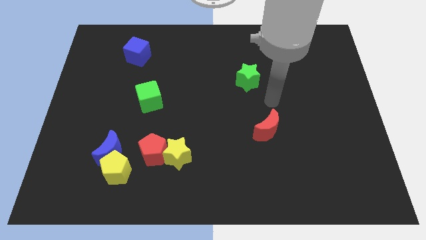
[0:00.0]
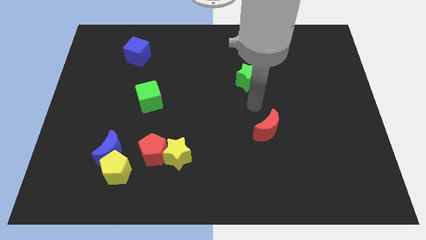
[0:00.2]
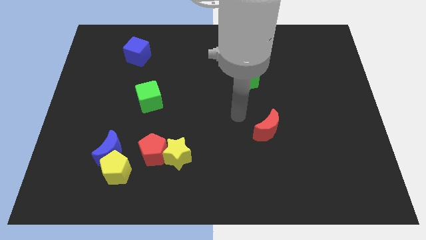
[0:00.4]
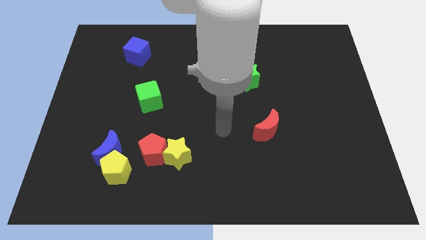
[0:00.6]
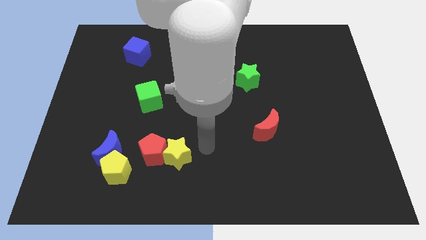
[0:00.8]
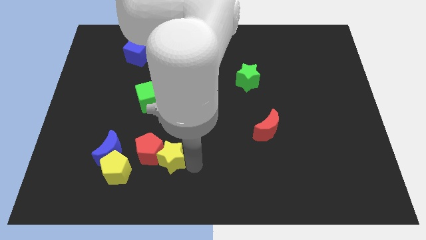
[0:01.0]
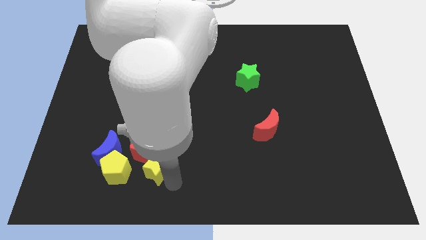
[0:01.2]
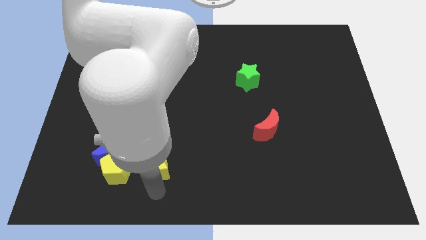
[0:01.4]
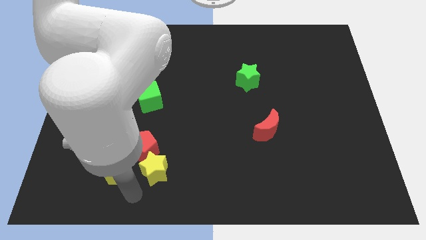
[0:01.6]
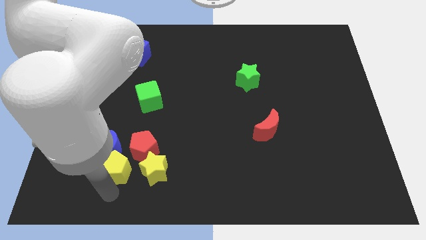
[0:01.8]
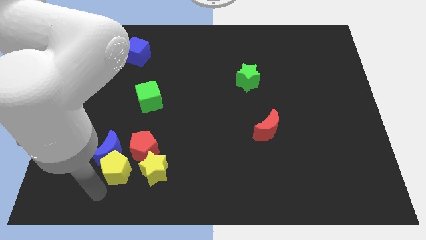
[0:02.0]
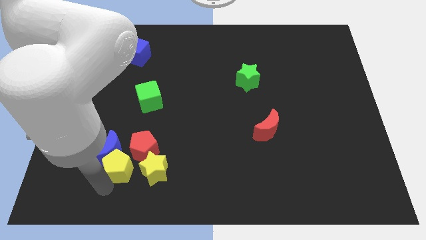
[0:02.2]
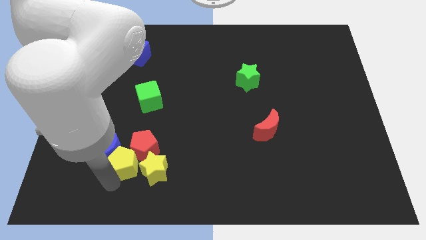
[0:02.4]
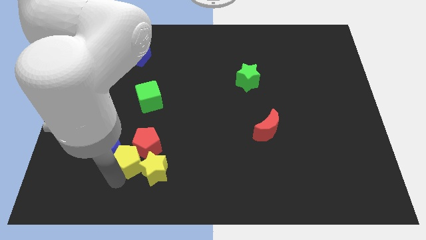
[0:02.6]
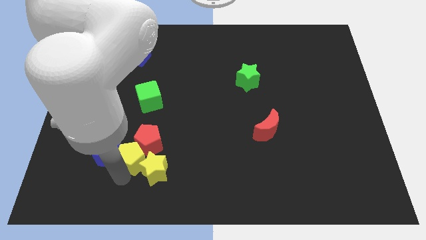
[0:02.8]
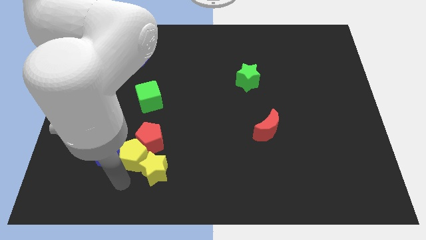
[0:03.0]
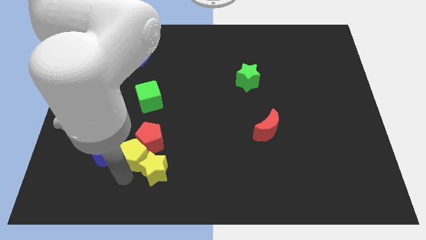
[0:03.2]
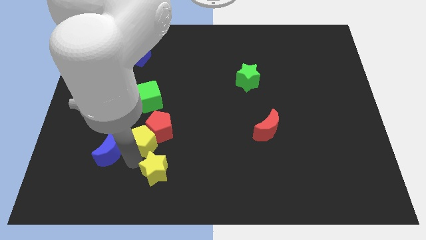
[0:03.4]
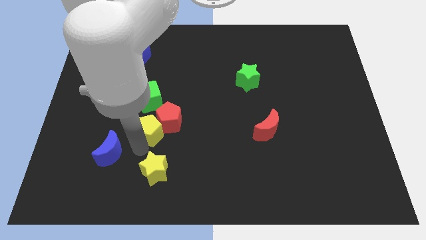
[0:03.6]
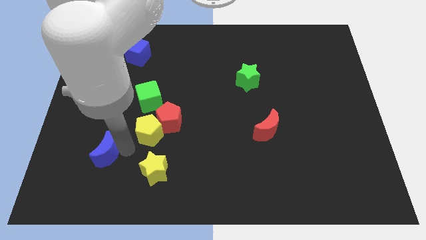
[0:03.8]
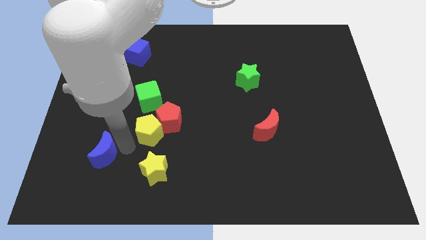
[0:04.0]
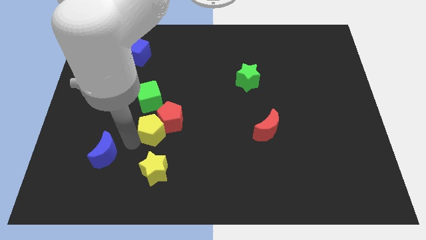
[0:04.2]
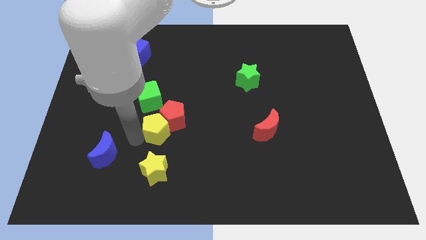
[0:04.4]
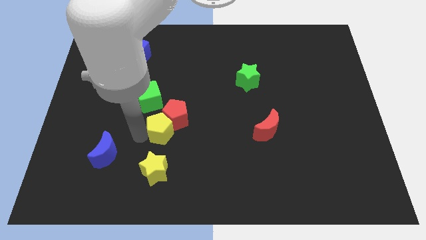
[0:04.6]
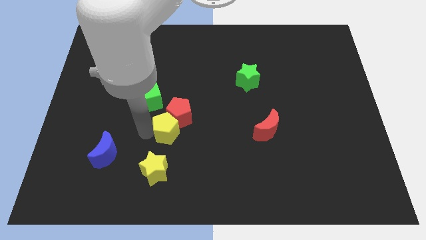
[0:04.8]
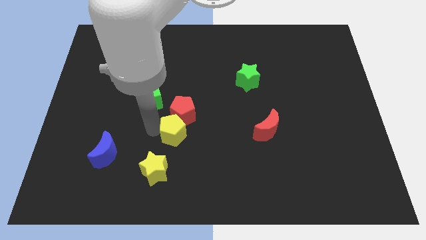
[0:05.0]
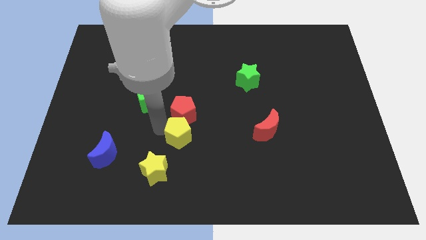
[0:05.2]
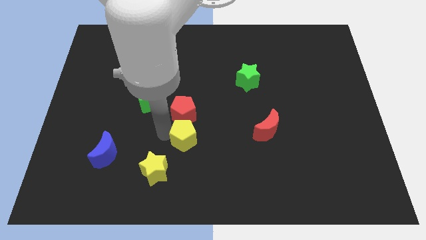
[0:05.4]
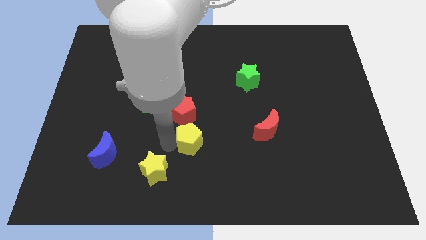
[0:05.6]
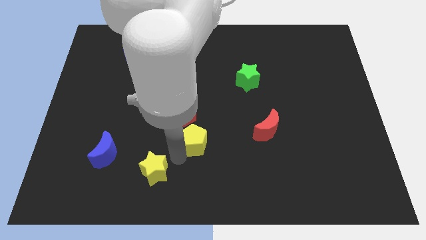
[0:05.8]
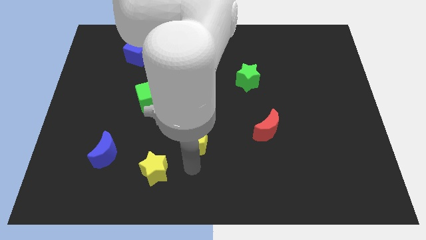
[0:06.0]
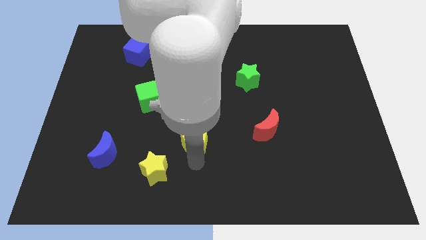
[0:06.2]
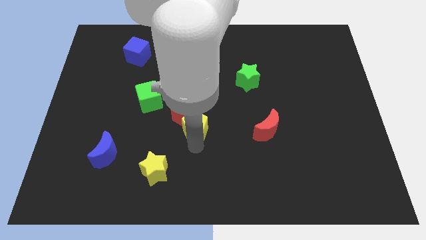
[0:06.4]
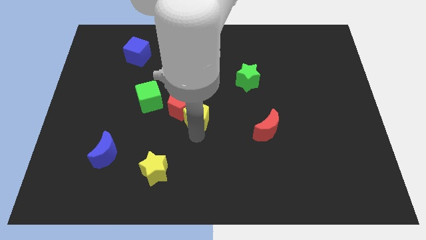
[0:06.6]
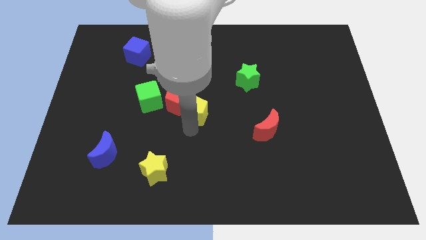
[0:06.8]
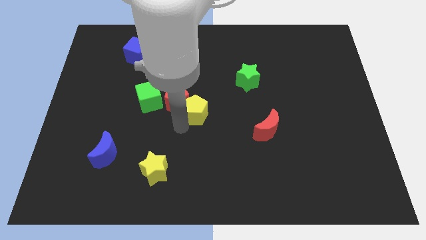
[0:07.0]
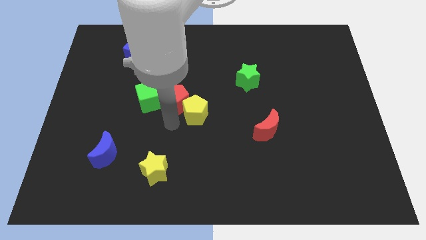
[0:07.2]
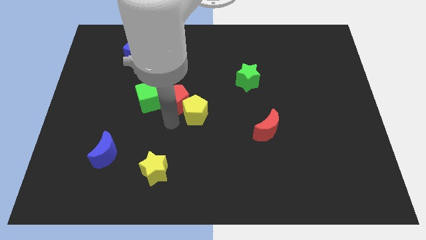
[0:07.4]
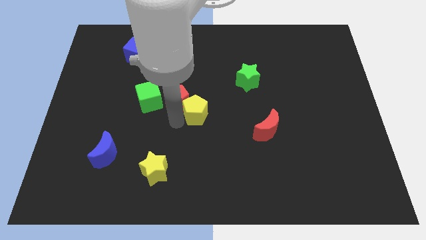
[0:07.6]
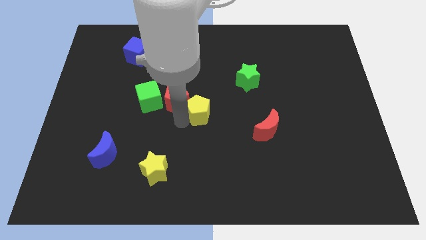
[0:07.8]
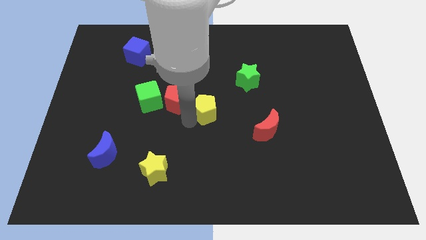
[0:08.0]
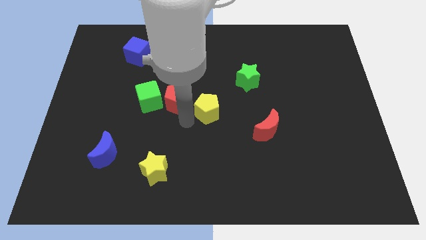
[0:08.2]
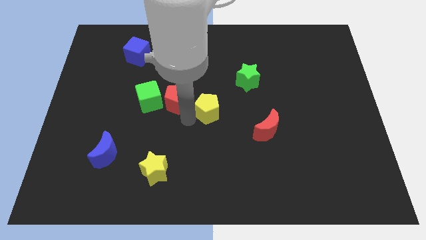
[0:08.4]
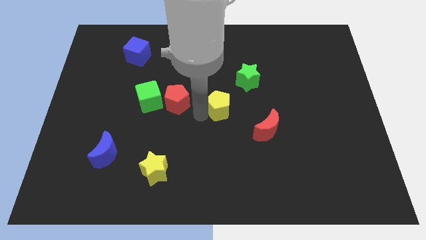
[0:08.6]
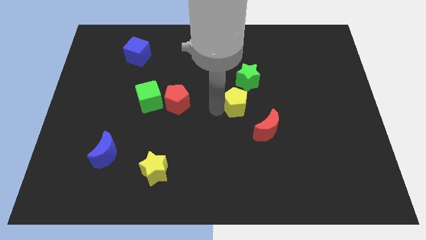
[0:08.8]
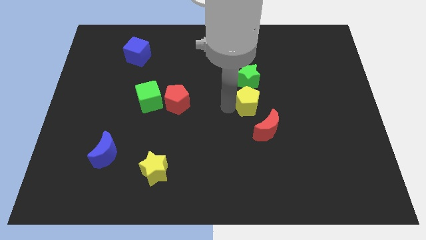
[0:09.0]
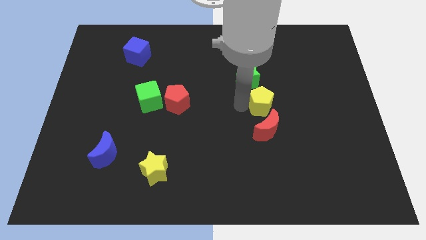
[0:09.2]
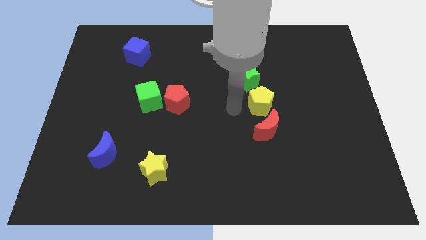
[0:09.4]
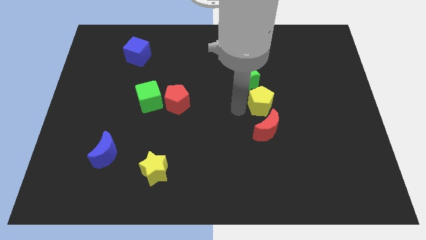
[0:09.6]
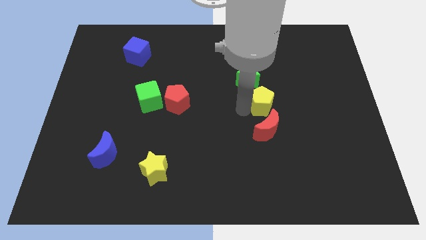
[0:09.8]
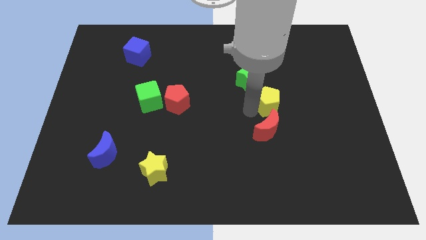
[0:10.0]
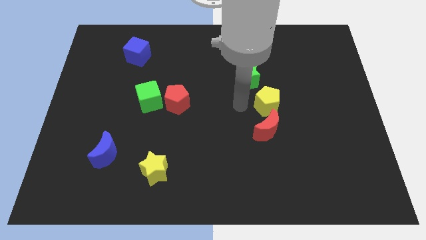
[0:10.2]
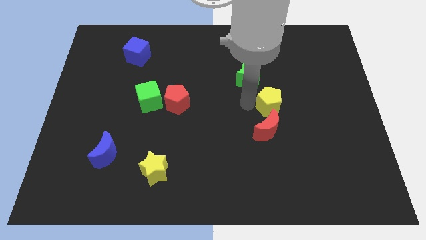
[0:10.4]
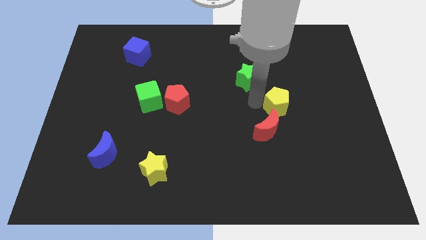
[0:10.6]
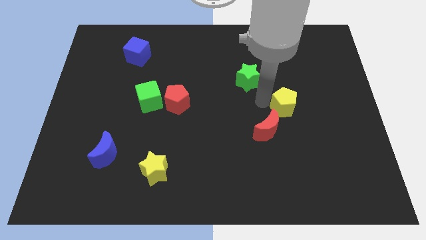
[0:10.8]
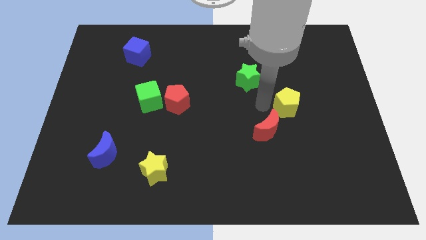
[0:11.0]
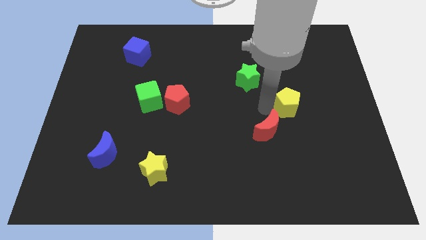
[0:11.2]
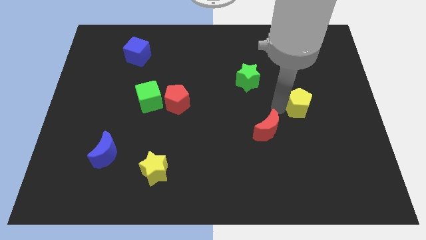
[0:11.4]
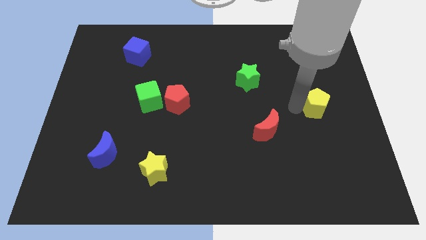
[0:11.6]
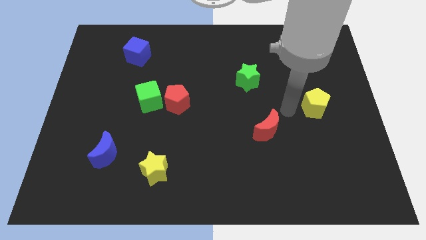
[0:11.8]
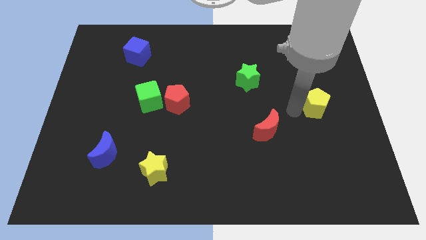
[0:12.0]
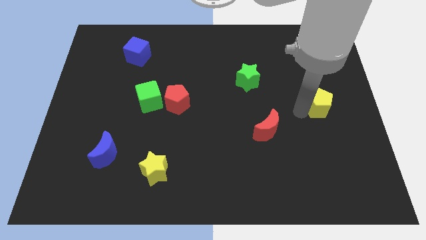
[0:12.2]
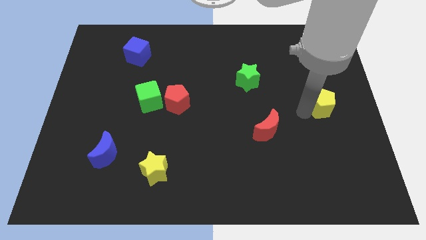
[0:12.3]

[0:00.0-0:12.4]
push the yellow pentagon to the center right
